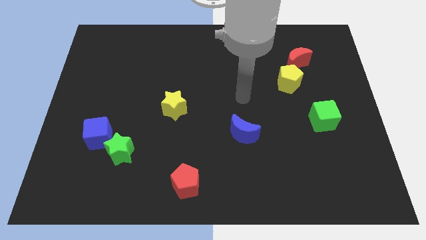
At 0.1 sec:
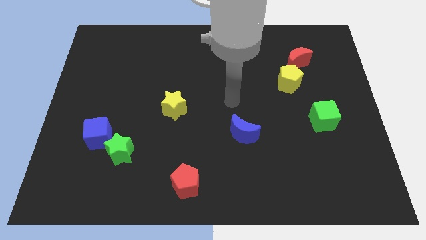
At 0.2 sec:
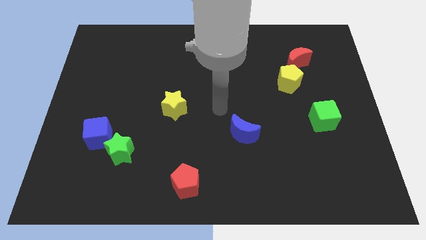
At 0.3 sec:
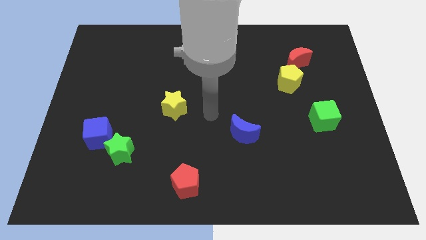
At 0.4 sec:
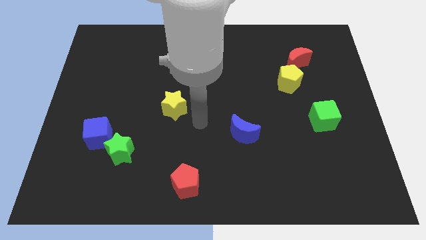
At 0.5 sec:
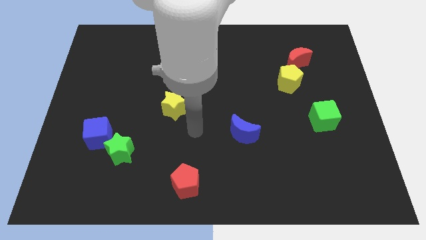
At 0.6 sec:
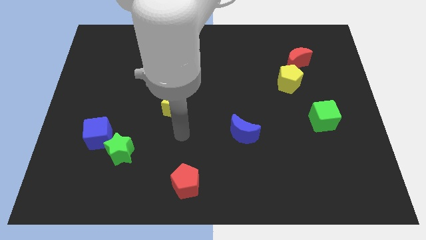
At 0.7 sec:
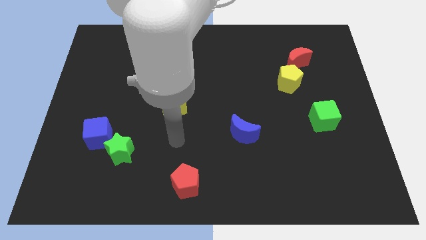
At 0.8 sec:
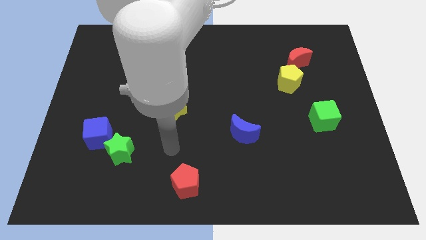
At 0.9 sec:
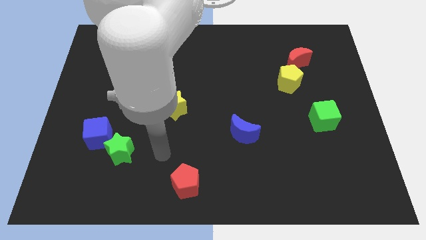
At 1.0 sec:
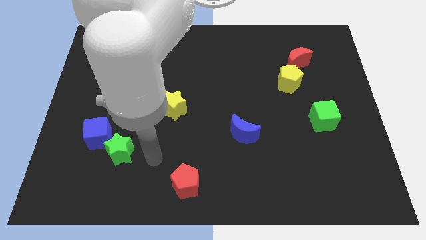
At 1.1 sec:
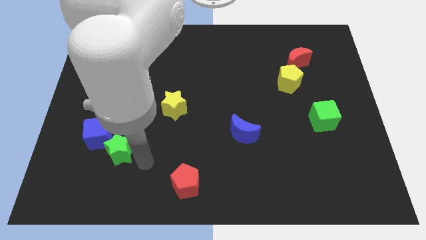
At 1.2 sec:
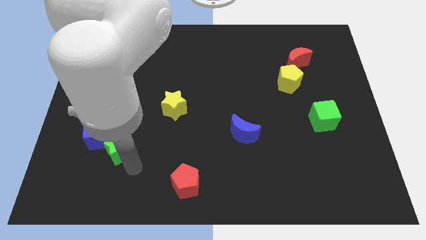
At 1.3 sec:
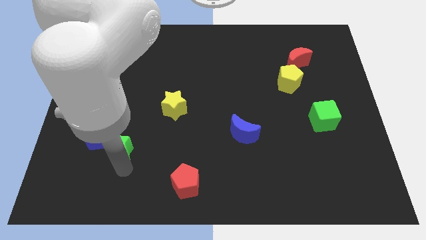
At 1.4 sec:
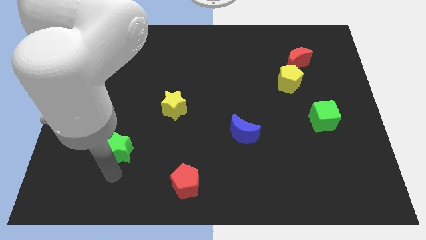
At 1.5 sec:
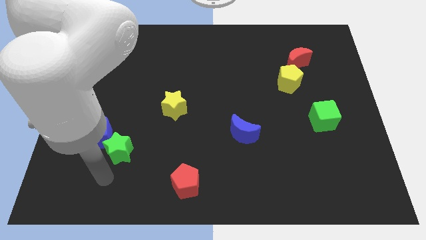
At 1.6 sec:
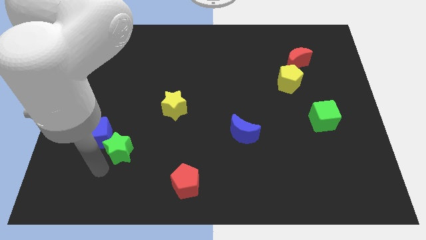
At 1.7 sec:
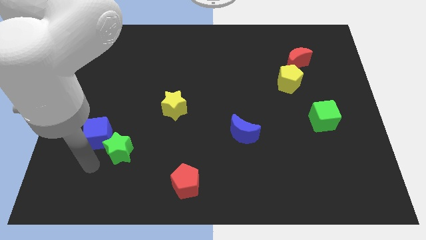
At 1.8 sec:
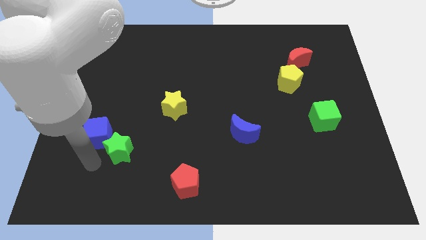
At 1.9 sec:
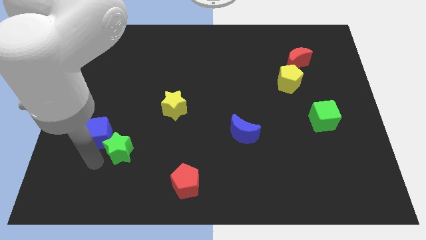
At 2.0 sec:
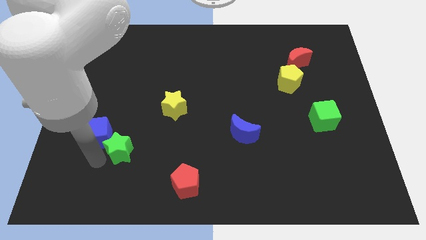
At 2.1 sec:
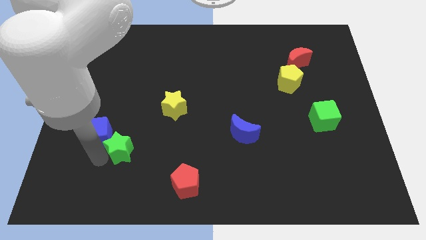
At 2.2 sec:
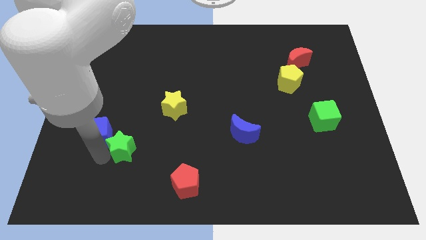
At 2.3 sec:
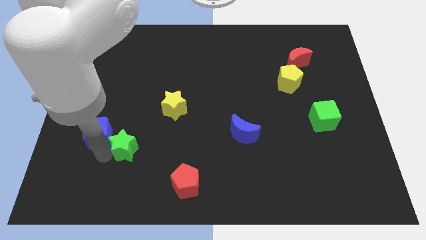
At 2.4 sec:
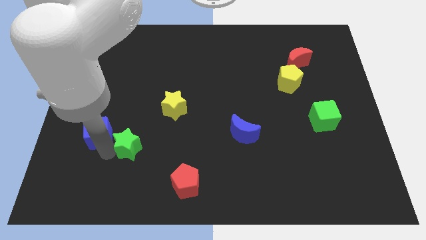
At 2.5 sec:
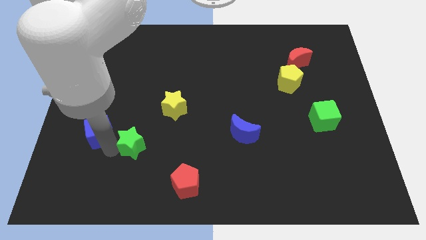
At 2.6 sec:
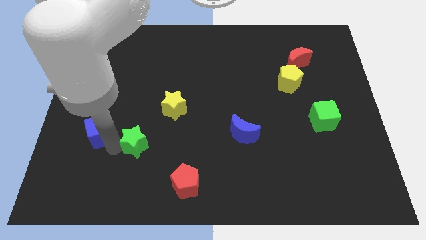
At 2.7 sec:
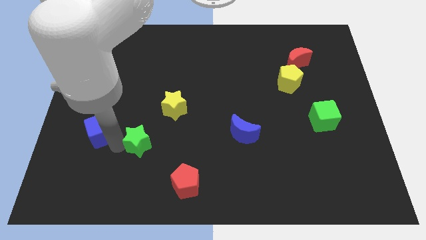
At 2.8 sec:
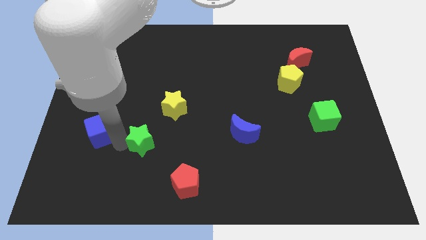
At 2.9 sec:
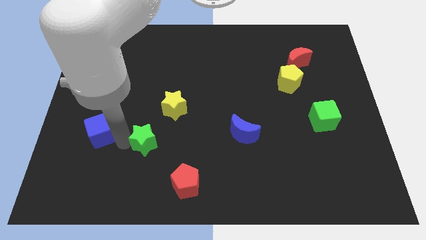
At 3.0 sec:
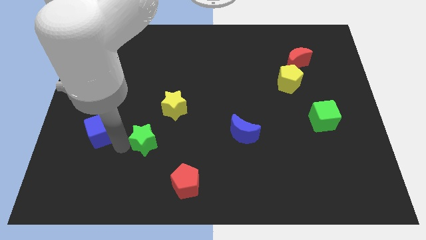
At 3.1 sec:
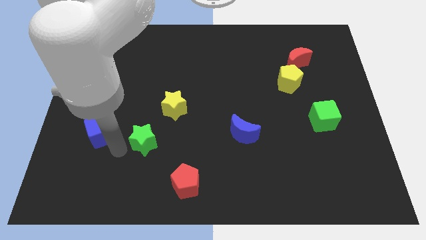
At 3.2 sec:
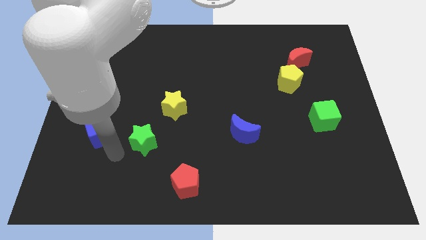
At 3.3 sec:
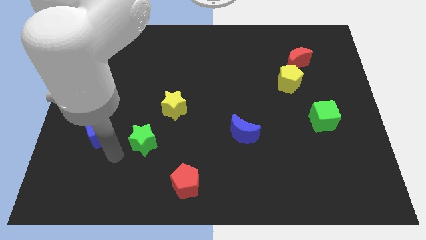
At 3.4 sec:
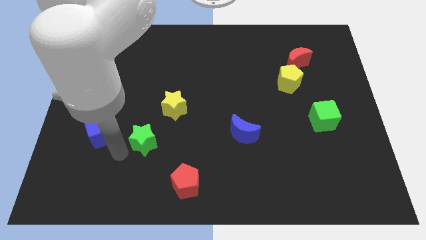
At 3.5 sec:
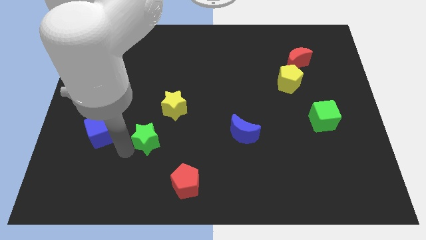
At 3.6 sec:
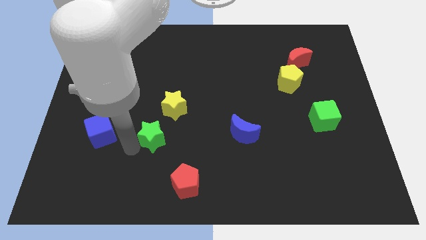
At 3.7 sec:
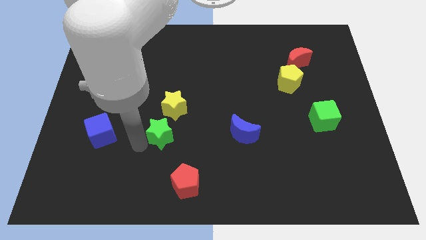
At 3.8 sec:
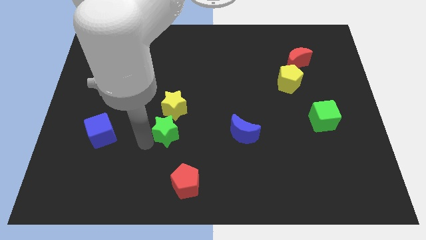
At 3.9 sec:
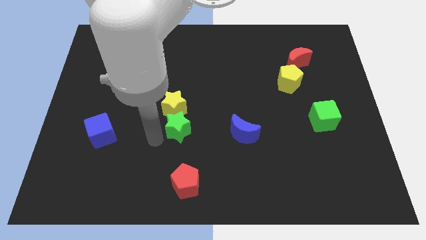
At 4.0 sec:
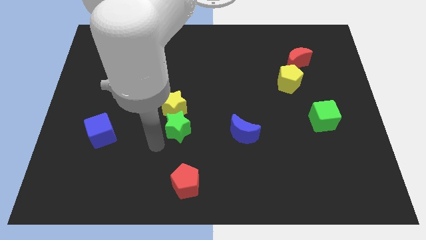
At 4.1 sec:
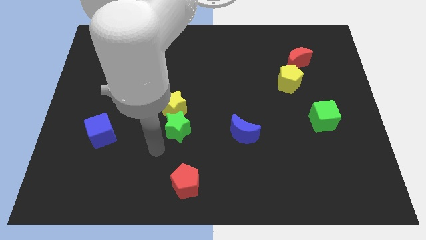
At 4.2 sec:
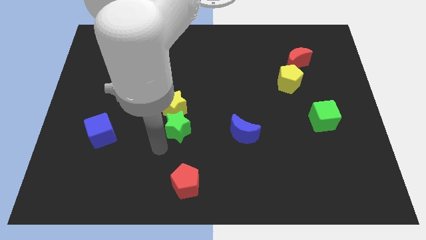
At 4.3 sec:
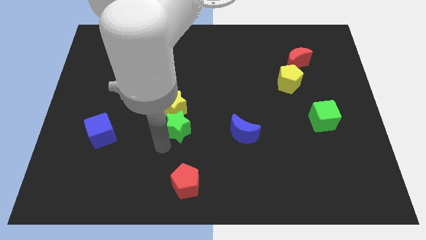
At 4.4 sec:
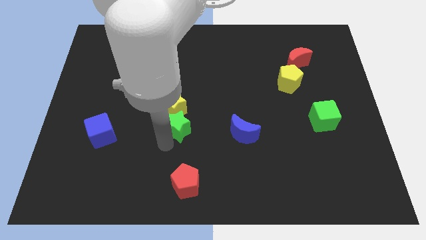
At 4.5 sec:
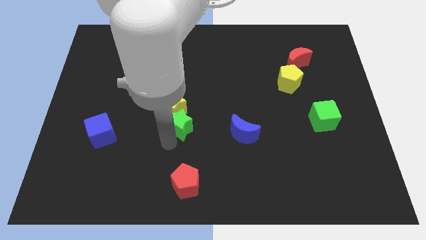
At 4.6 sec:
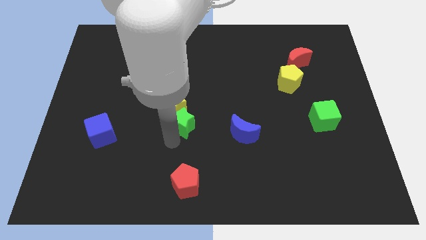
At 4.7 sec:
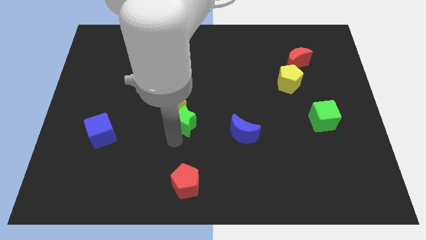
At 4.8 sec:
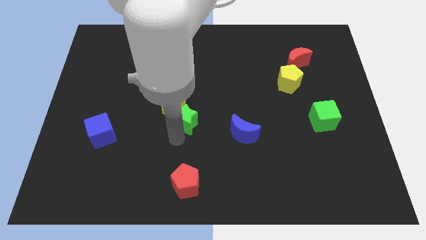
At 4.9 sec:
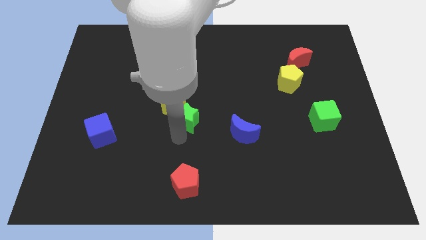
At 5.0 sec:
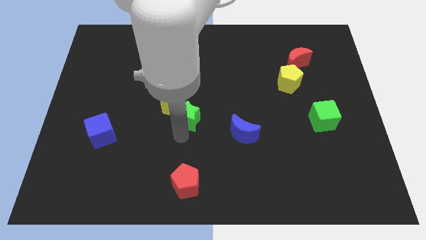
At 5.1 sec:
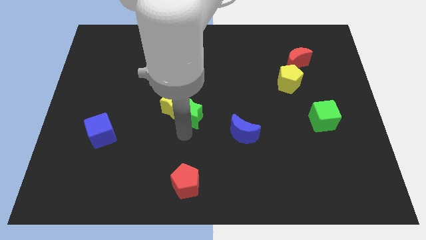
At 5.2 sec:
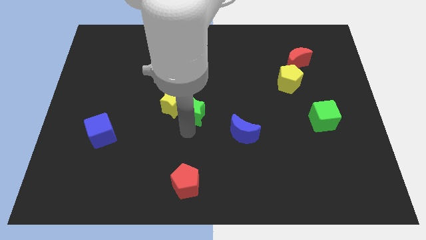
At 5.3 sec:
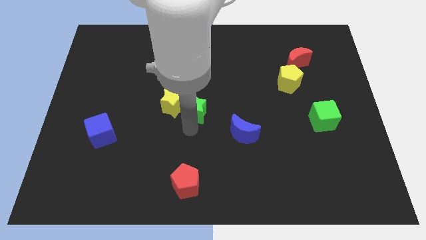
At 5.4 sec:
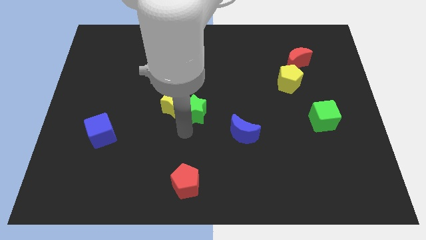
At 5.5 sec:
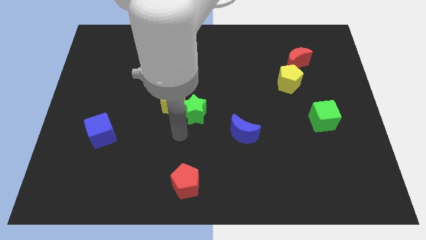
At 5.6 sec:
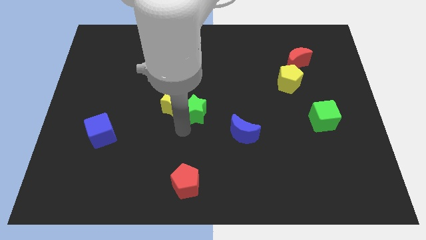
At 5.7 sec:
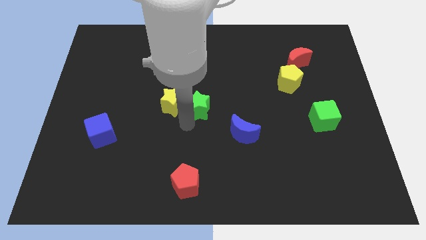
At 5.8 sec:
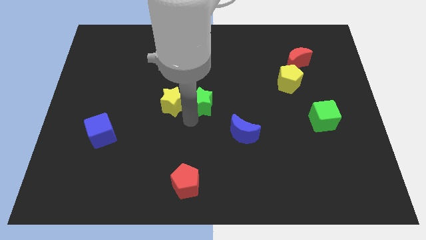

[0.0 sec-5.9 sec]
slide the green star up and to the right

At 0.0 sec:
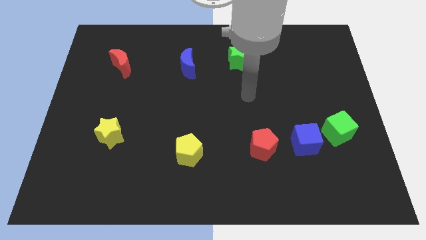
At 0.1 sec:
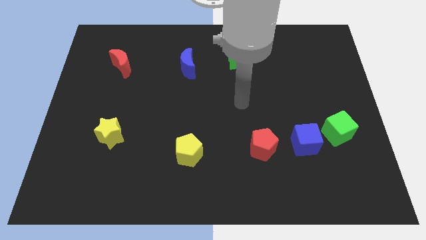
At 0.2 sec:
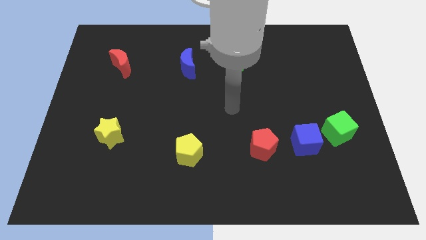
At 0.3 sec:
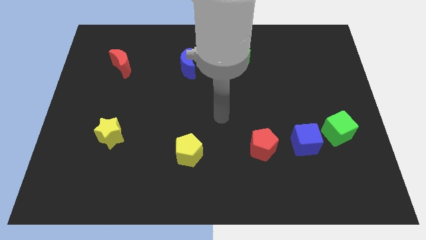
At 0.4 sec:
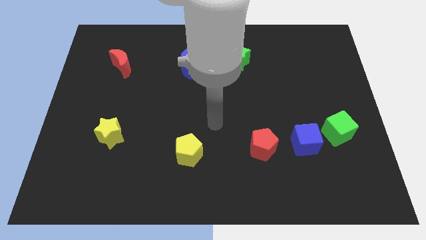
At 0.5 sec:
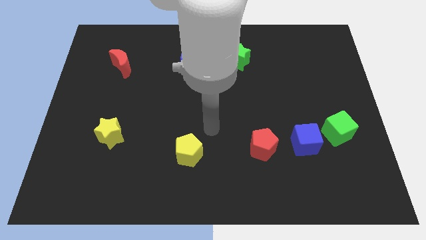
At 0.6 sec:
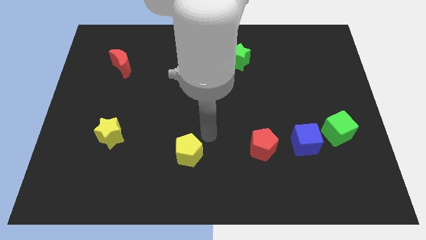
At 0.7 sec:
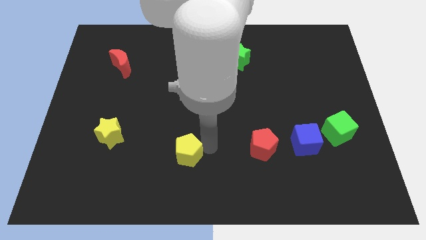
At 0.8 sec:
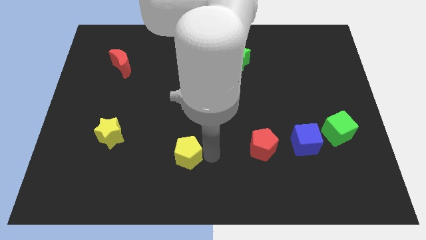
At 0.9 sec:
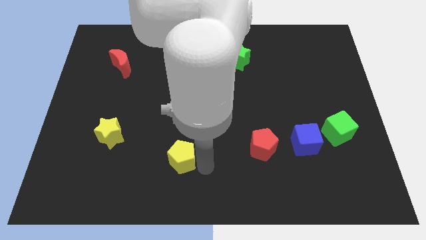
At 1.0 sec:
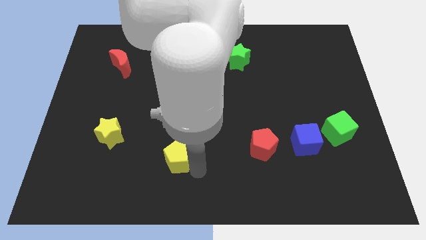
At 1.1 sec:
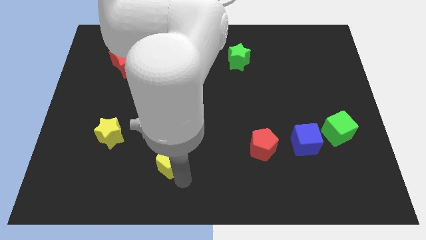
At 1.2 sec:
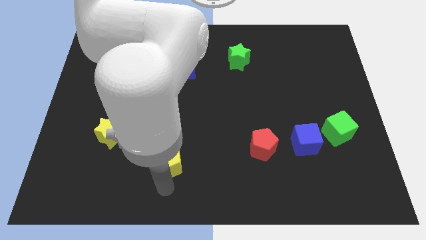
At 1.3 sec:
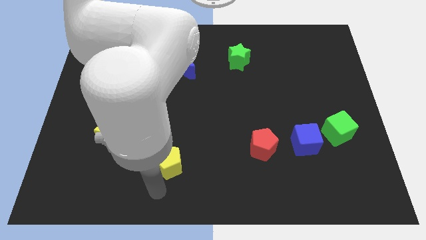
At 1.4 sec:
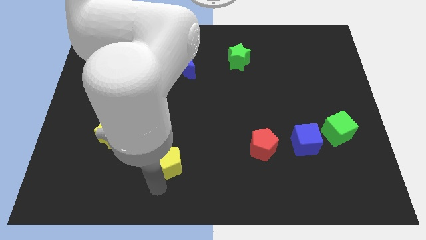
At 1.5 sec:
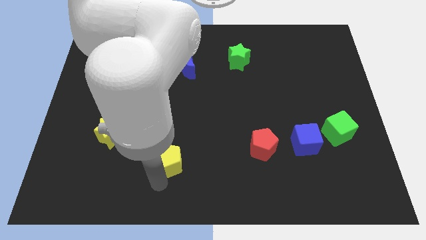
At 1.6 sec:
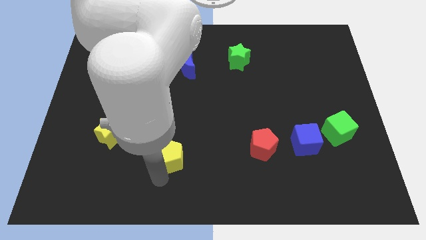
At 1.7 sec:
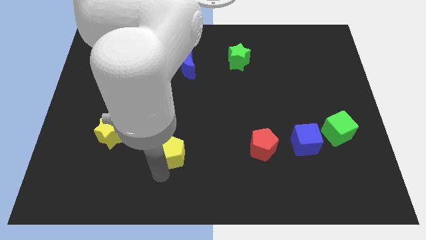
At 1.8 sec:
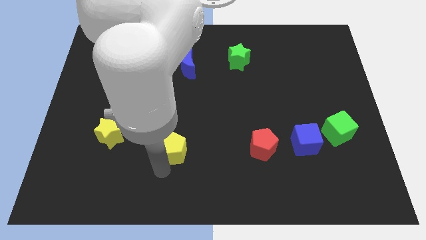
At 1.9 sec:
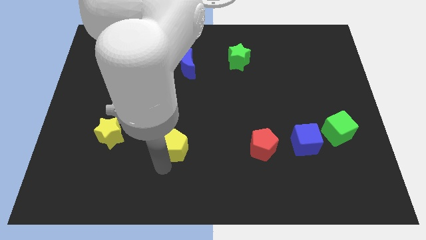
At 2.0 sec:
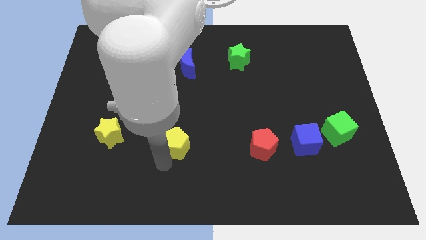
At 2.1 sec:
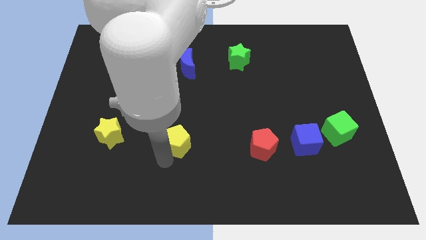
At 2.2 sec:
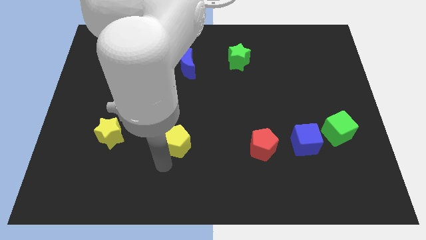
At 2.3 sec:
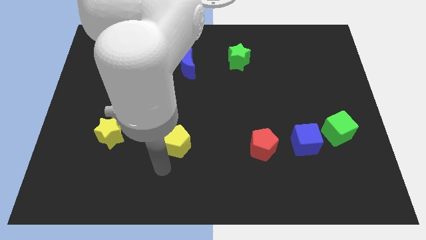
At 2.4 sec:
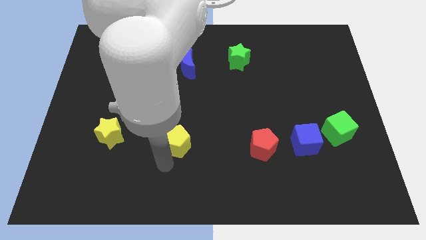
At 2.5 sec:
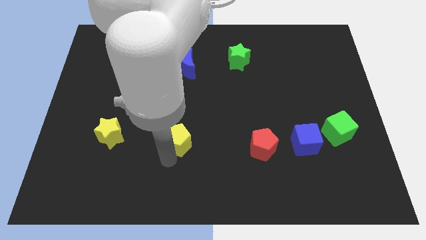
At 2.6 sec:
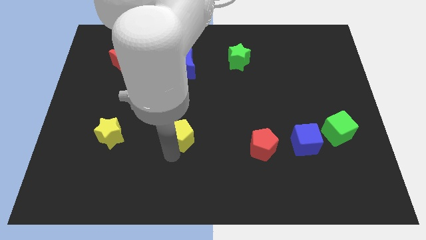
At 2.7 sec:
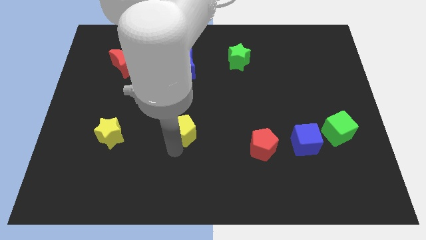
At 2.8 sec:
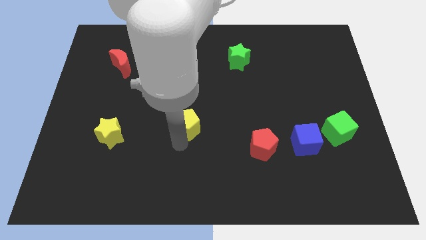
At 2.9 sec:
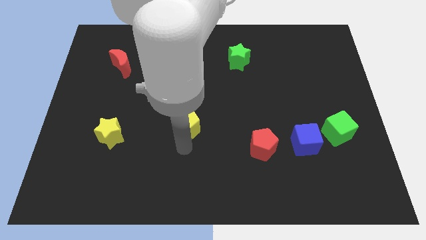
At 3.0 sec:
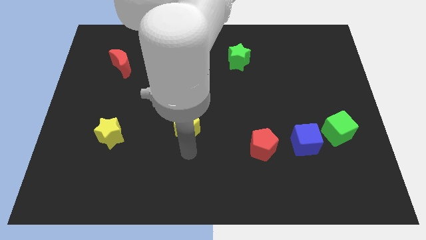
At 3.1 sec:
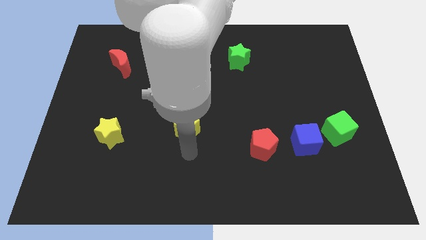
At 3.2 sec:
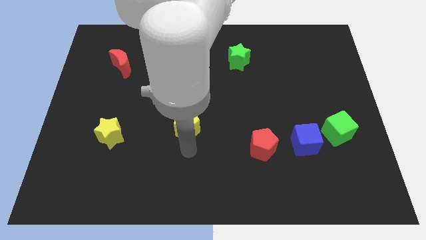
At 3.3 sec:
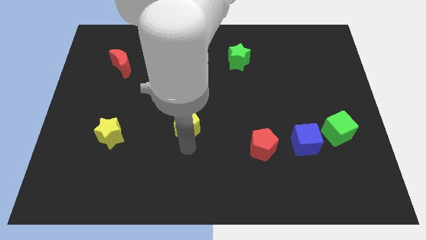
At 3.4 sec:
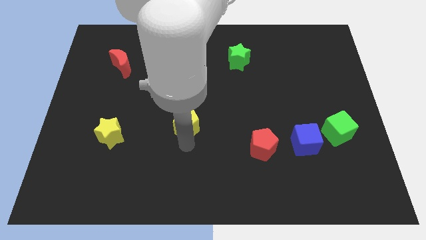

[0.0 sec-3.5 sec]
push the yellow pentagon somewhat up
